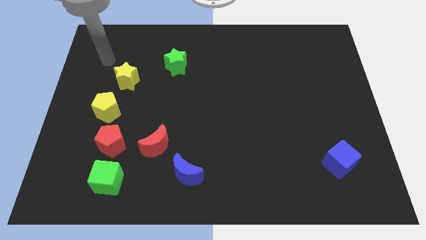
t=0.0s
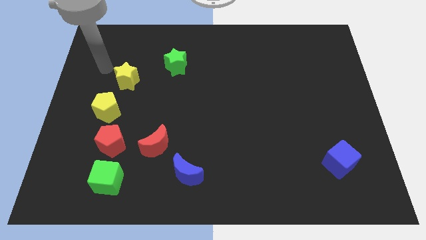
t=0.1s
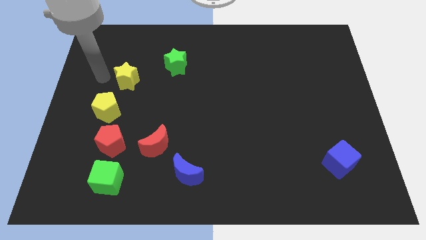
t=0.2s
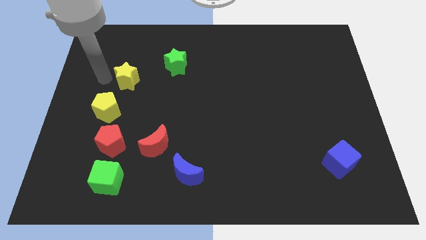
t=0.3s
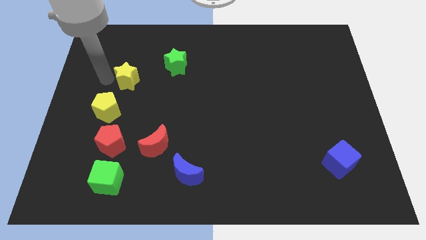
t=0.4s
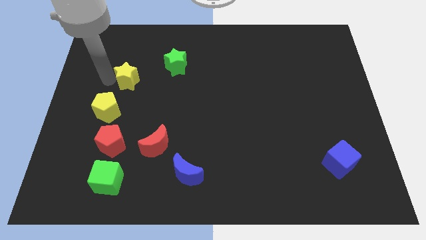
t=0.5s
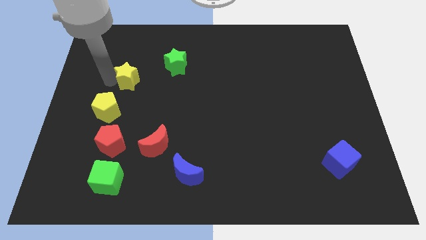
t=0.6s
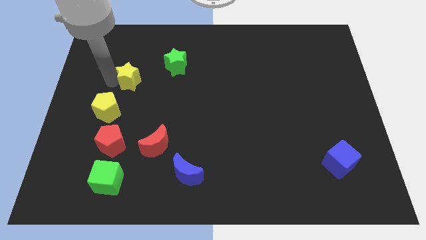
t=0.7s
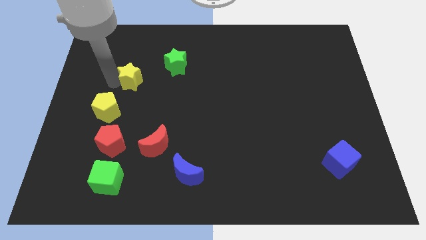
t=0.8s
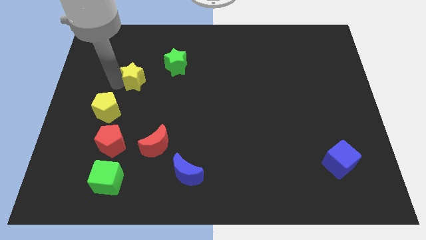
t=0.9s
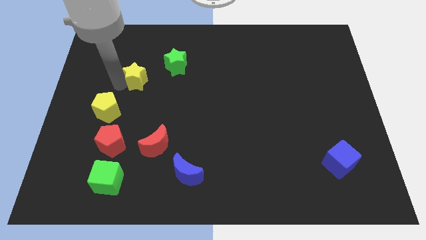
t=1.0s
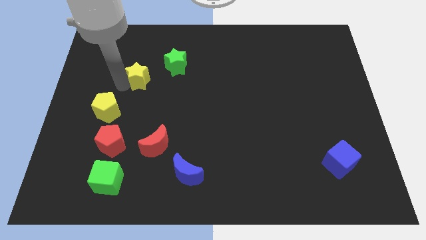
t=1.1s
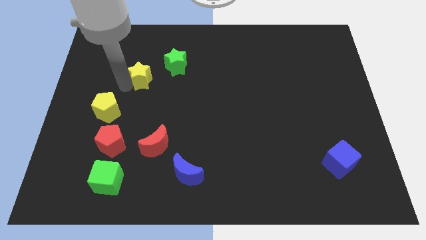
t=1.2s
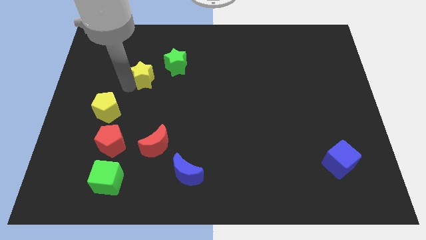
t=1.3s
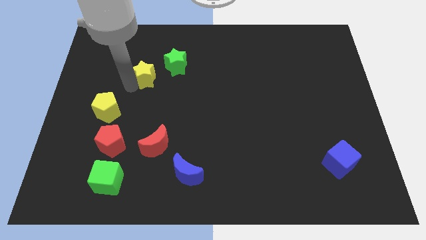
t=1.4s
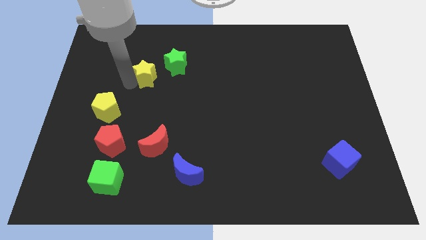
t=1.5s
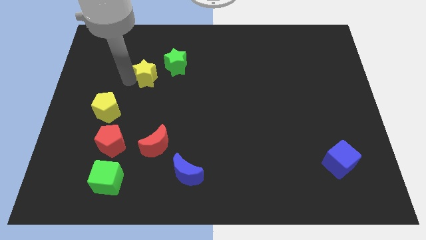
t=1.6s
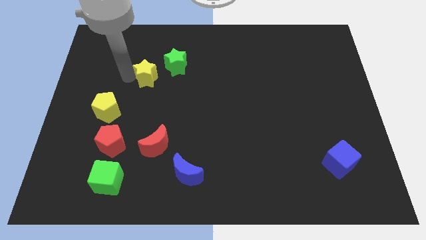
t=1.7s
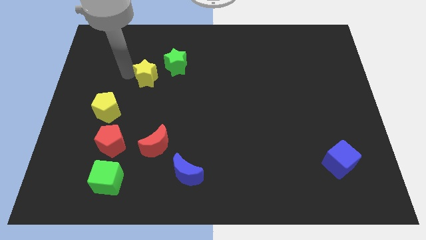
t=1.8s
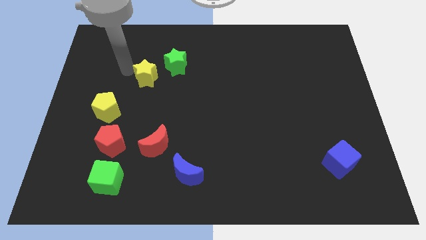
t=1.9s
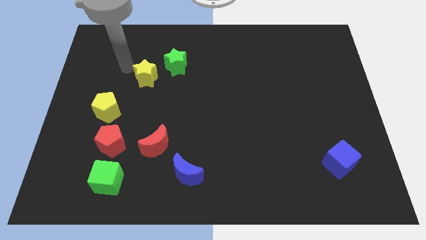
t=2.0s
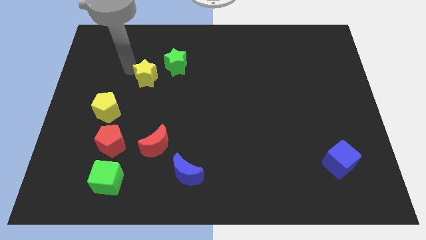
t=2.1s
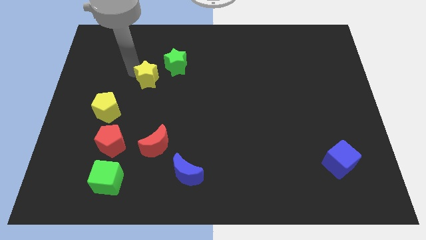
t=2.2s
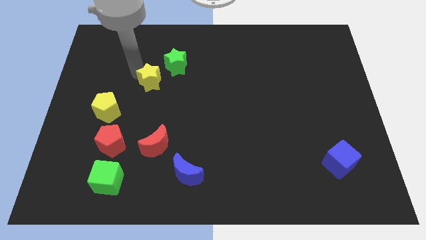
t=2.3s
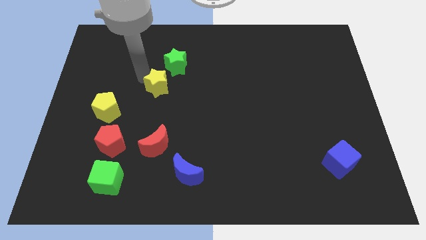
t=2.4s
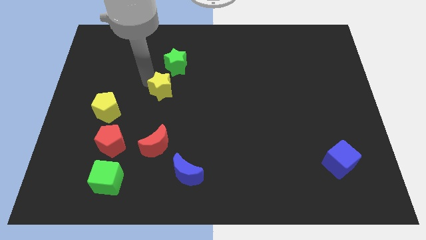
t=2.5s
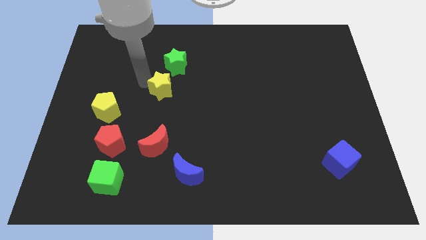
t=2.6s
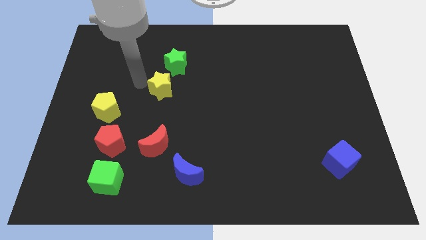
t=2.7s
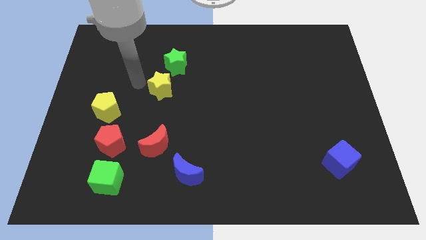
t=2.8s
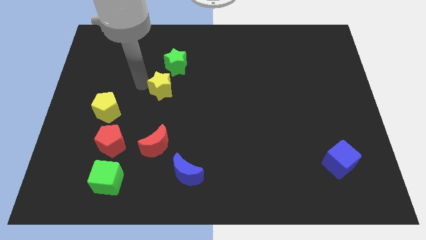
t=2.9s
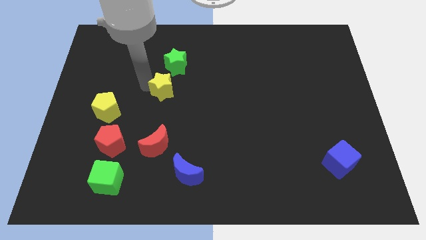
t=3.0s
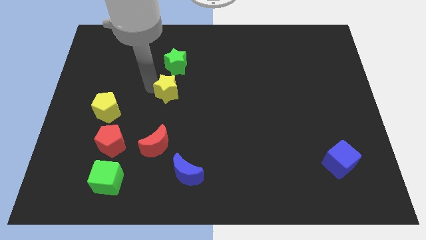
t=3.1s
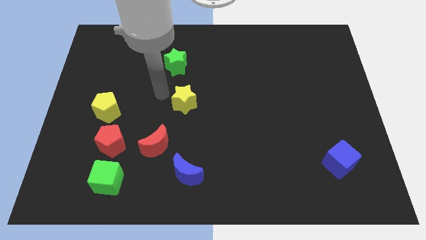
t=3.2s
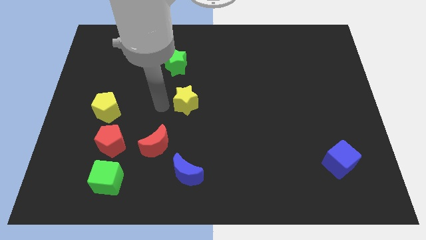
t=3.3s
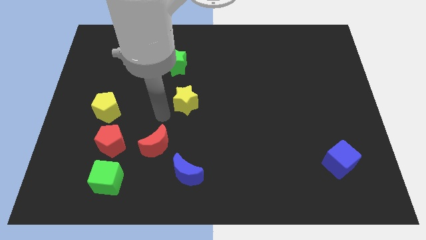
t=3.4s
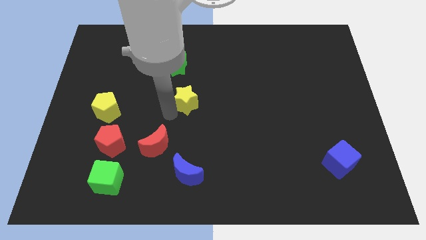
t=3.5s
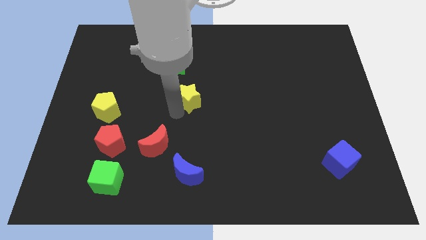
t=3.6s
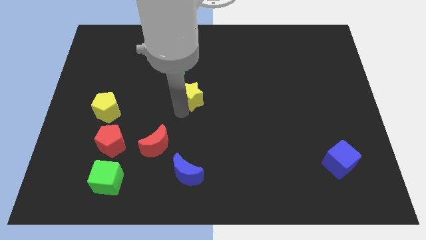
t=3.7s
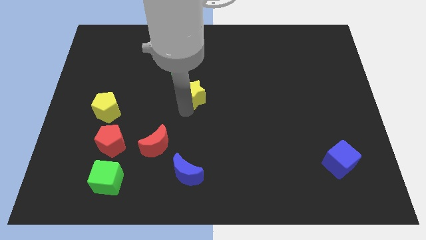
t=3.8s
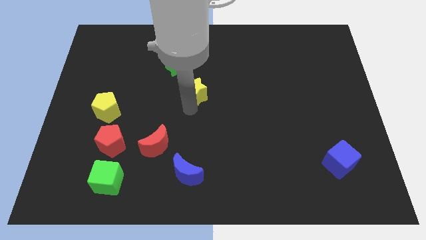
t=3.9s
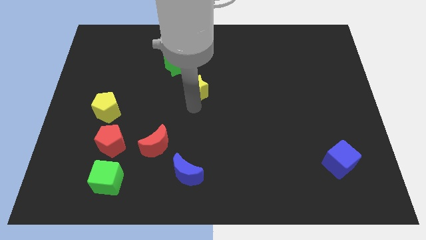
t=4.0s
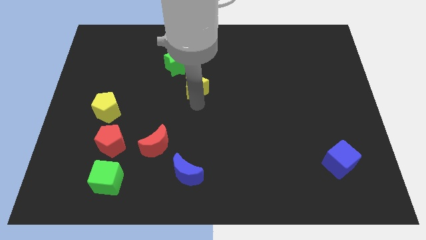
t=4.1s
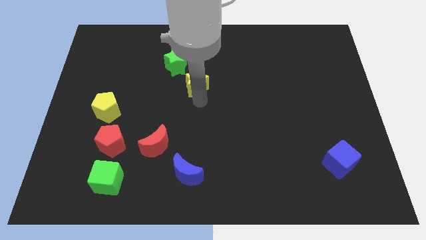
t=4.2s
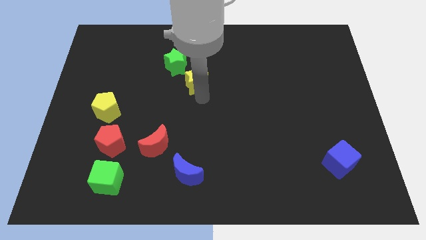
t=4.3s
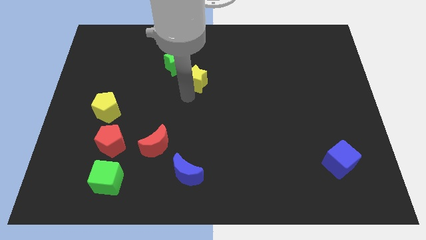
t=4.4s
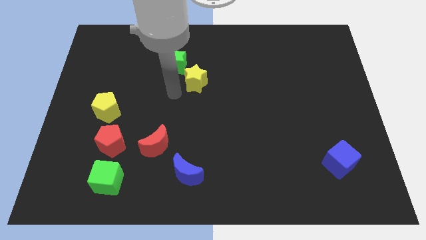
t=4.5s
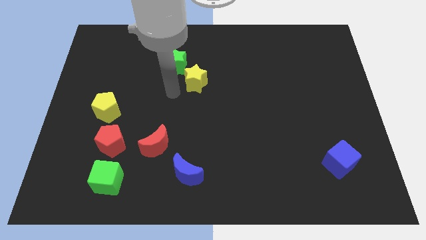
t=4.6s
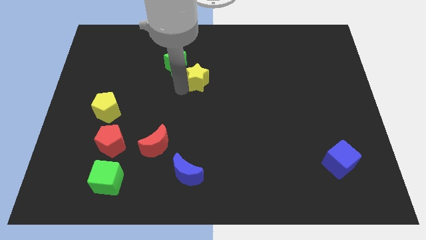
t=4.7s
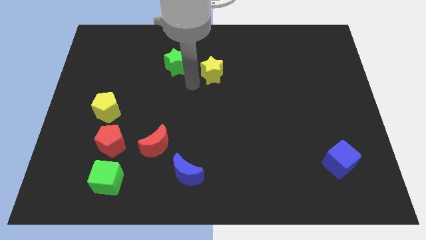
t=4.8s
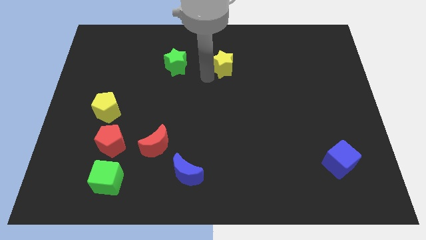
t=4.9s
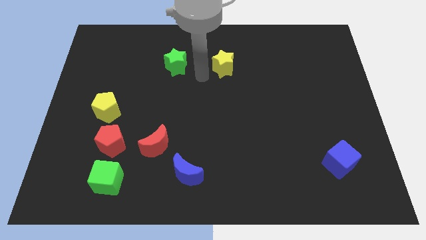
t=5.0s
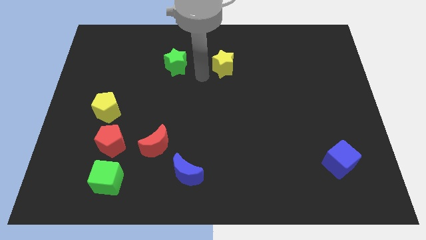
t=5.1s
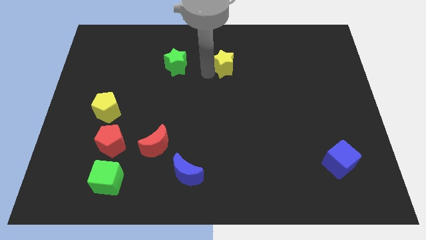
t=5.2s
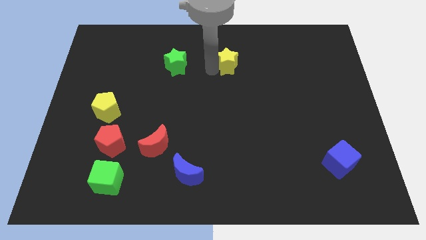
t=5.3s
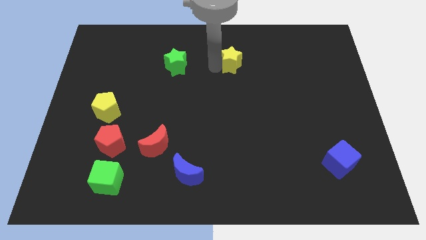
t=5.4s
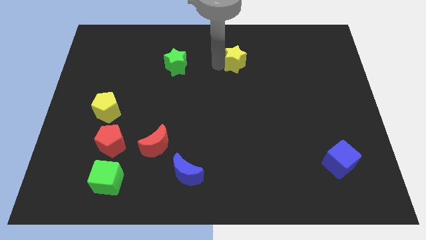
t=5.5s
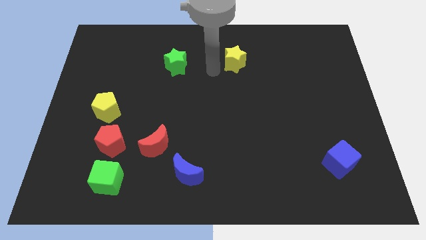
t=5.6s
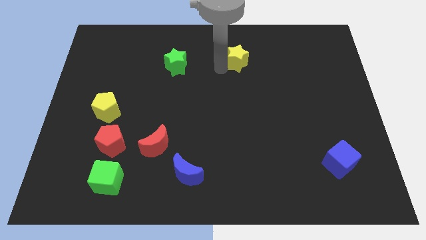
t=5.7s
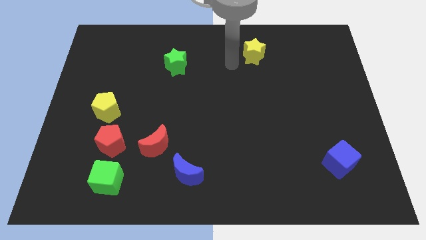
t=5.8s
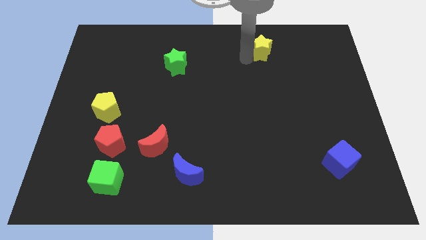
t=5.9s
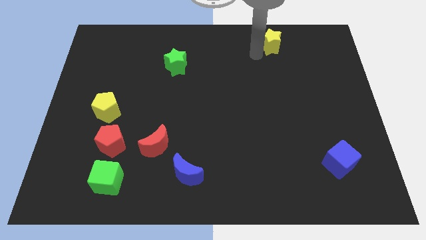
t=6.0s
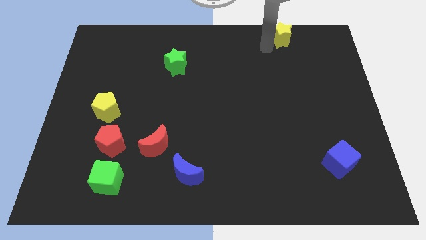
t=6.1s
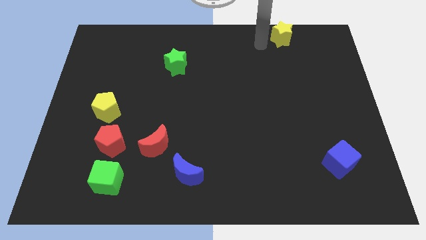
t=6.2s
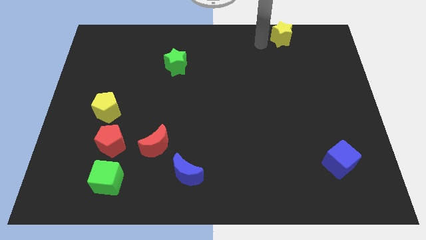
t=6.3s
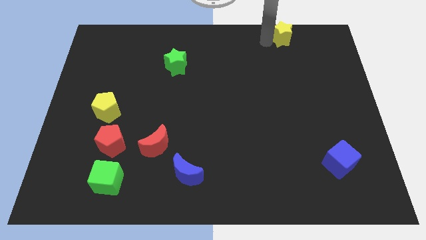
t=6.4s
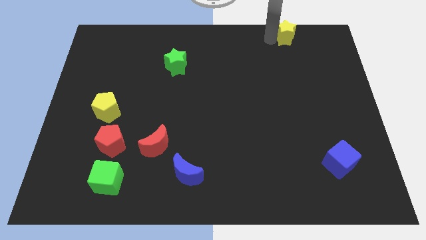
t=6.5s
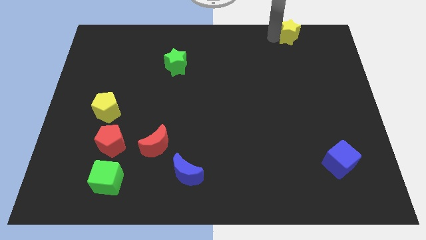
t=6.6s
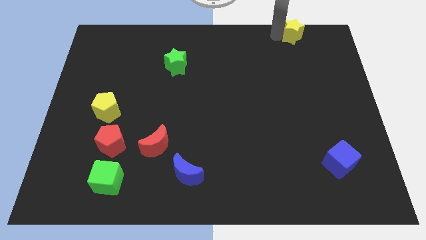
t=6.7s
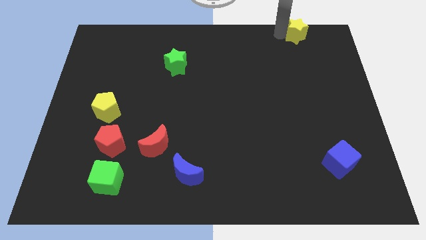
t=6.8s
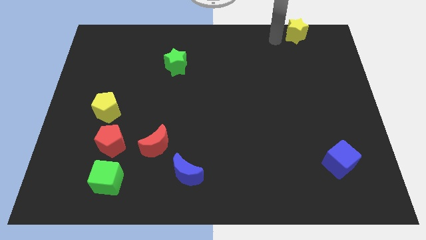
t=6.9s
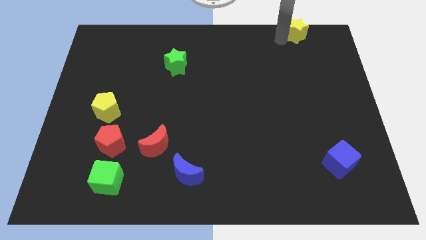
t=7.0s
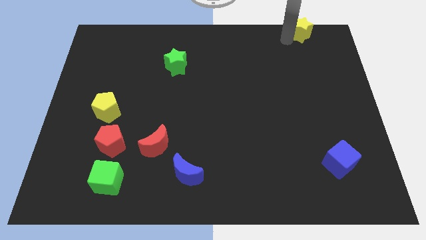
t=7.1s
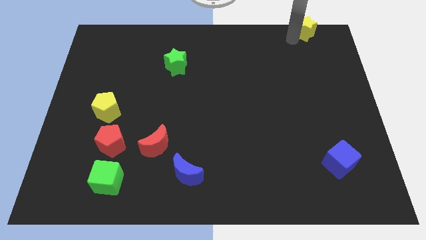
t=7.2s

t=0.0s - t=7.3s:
put the yellow star to the upper right corner
